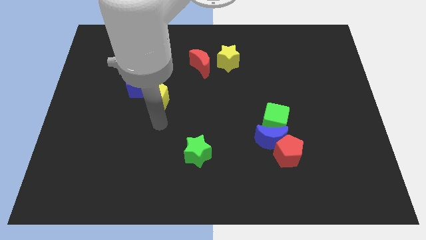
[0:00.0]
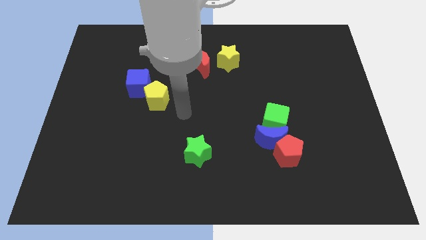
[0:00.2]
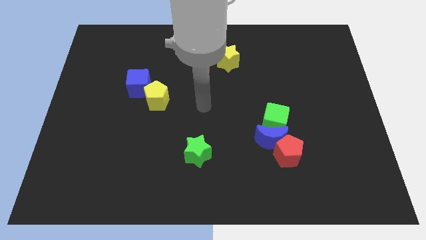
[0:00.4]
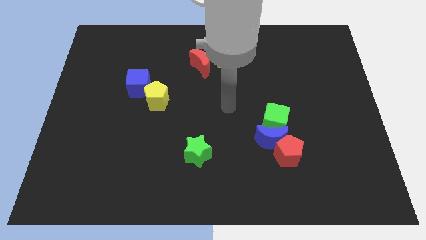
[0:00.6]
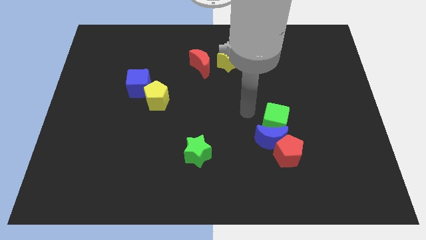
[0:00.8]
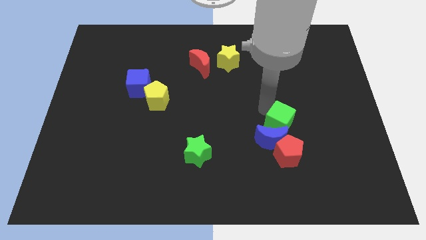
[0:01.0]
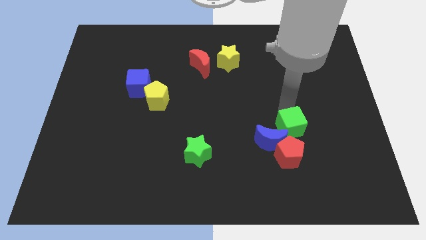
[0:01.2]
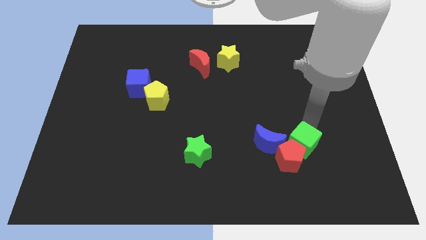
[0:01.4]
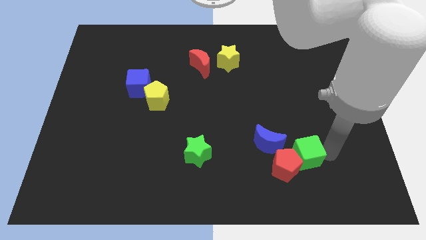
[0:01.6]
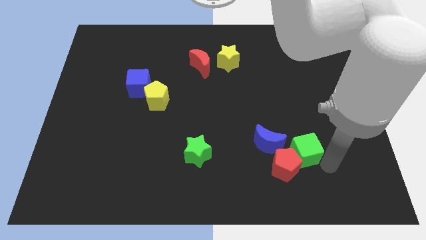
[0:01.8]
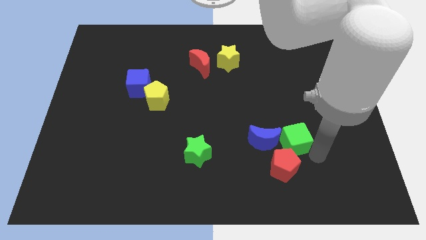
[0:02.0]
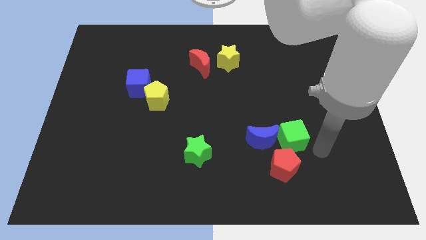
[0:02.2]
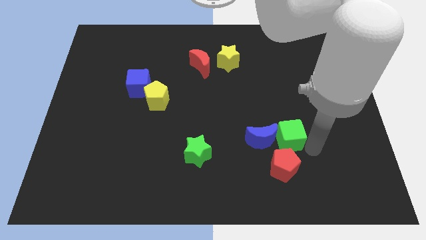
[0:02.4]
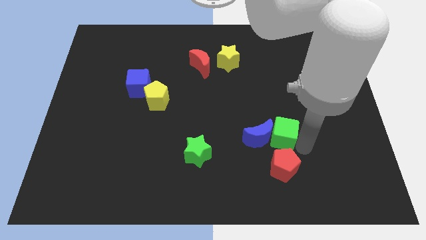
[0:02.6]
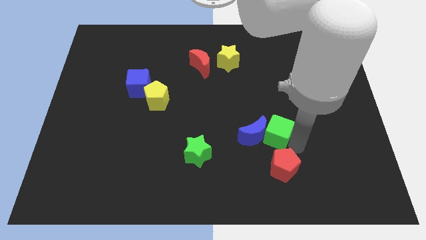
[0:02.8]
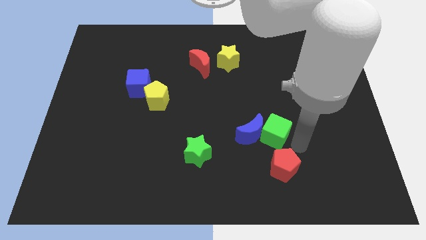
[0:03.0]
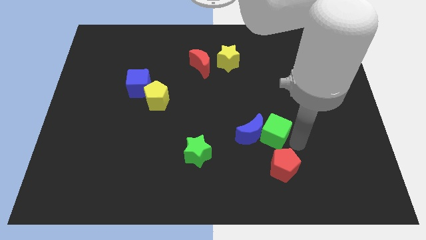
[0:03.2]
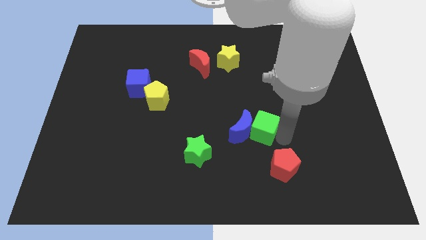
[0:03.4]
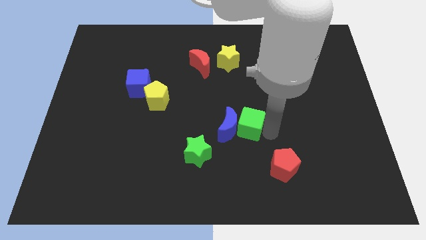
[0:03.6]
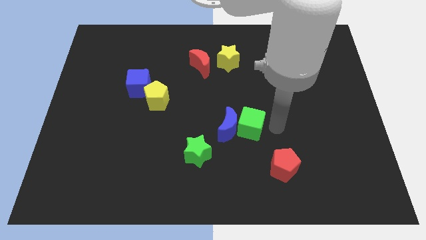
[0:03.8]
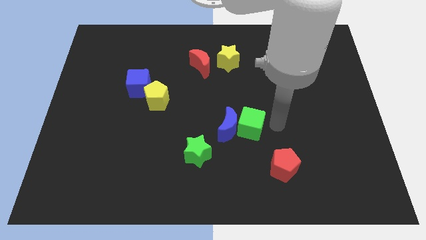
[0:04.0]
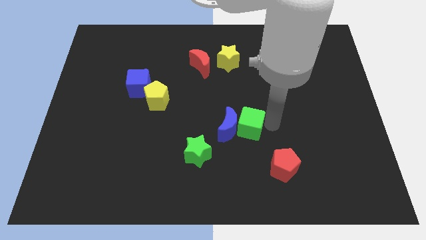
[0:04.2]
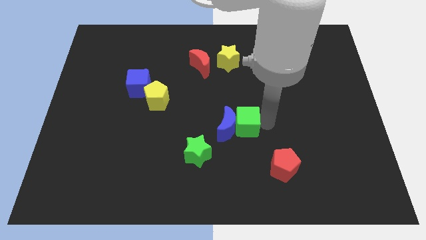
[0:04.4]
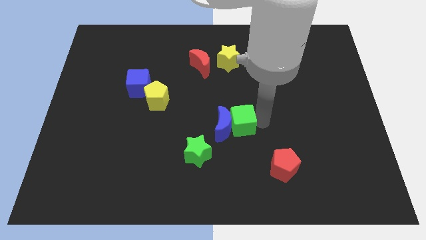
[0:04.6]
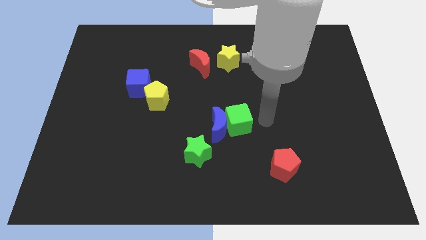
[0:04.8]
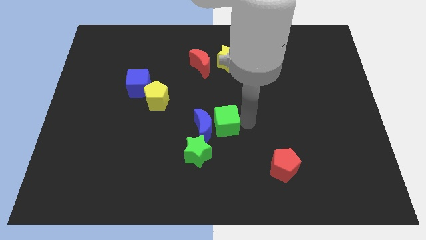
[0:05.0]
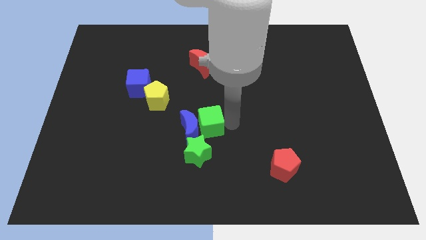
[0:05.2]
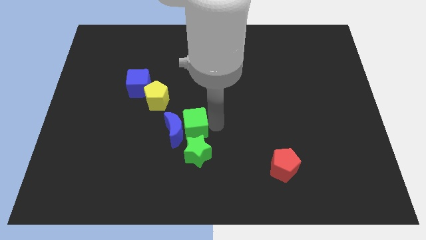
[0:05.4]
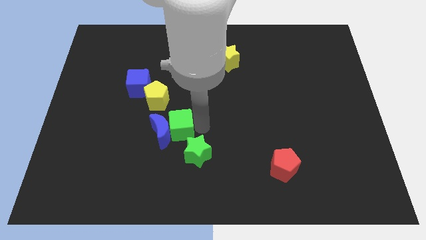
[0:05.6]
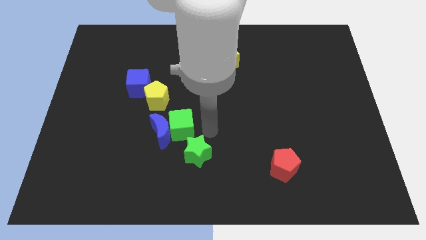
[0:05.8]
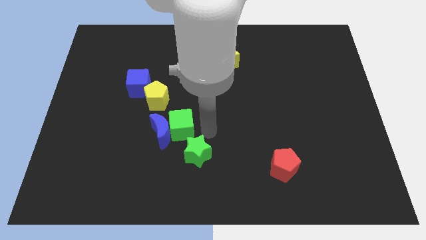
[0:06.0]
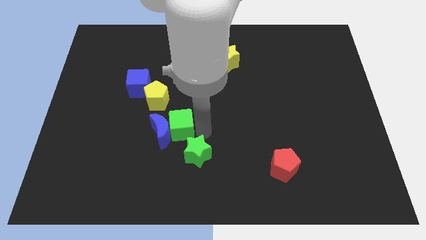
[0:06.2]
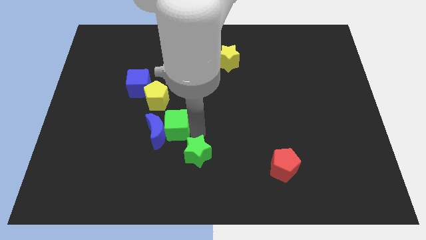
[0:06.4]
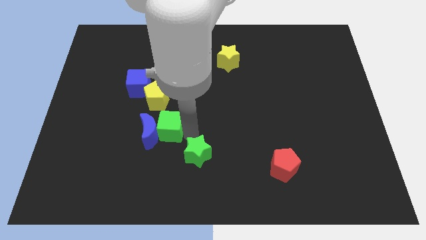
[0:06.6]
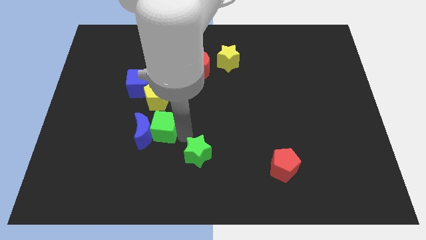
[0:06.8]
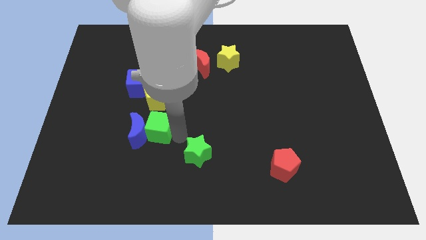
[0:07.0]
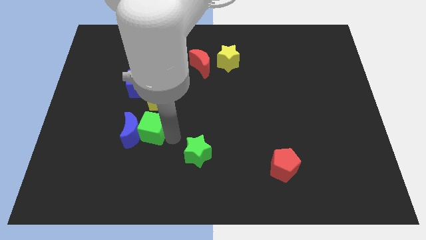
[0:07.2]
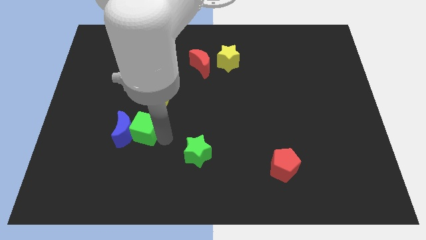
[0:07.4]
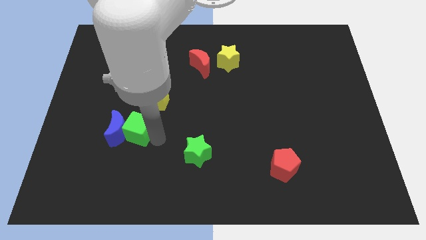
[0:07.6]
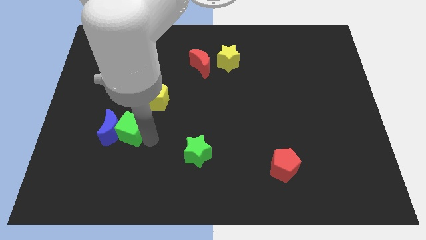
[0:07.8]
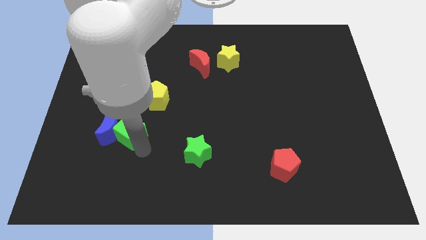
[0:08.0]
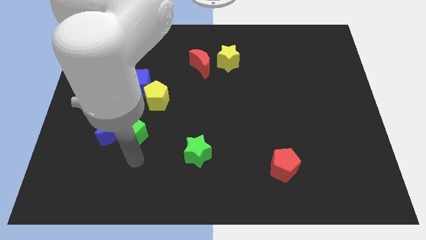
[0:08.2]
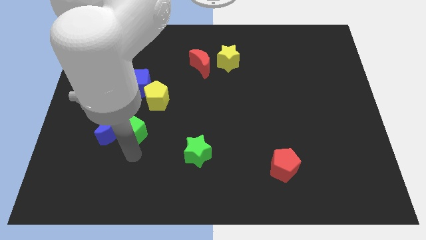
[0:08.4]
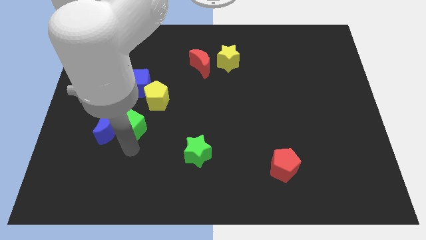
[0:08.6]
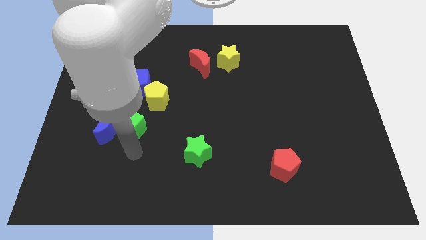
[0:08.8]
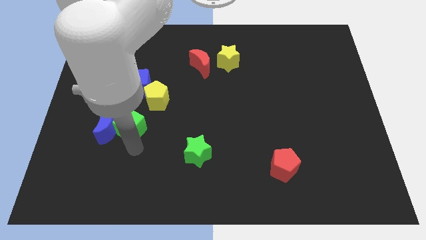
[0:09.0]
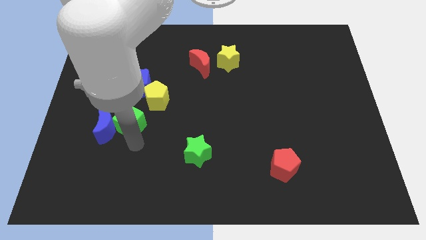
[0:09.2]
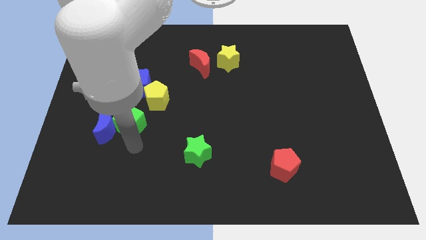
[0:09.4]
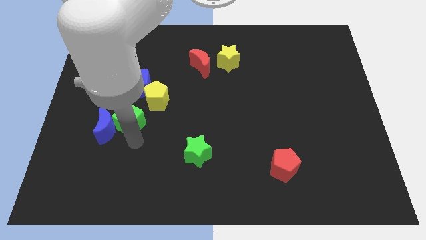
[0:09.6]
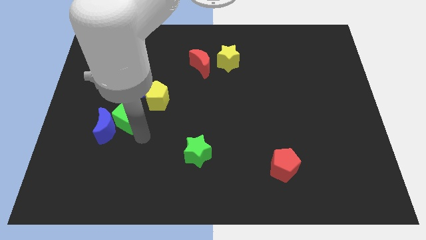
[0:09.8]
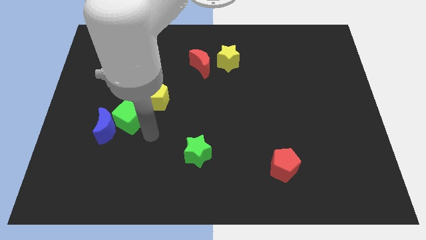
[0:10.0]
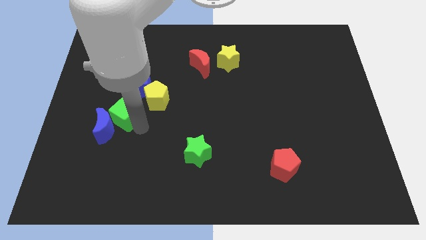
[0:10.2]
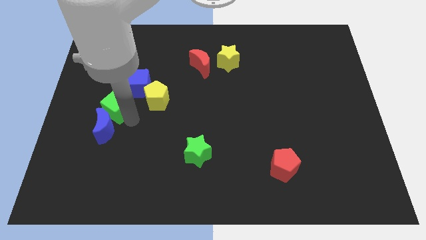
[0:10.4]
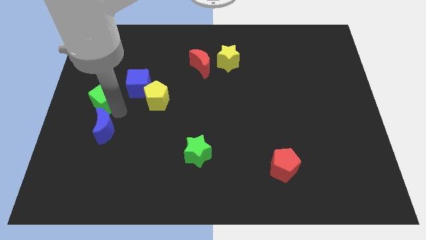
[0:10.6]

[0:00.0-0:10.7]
slide the green cube to the left of the blue cube

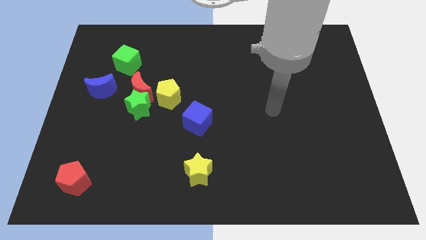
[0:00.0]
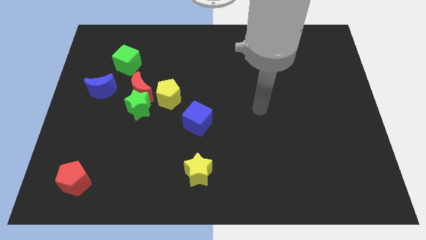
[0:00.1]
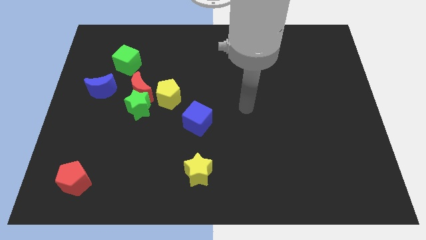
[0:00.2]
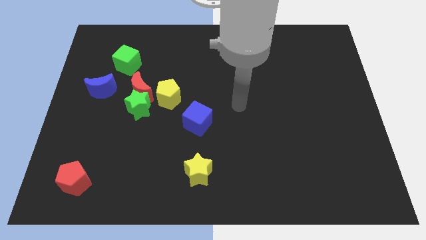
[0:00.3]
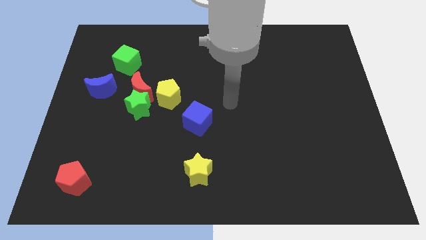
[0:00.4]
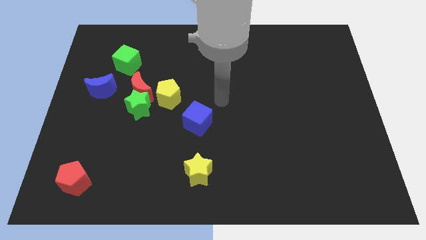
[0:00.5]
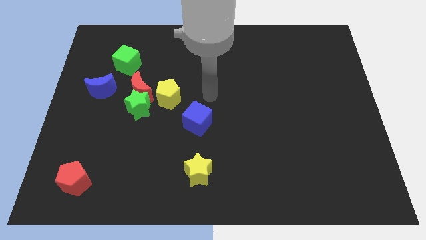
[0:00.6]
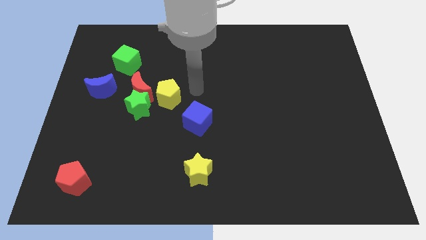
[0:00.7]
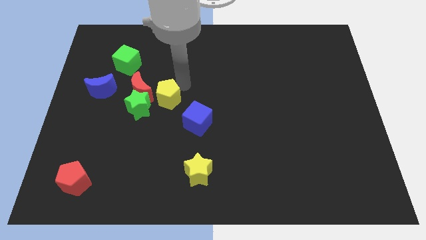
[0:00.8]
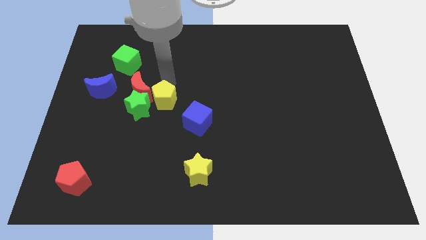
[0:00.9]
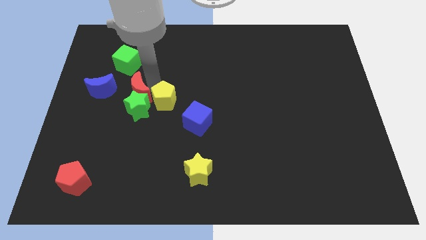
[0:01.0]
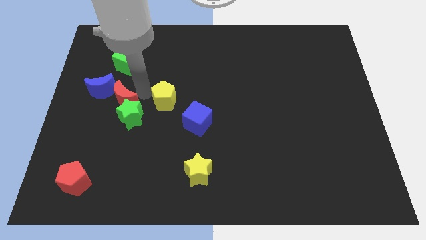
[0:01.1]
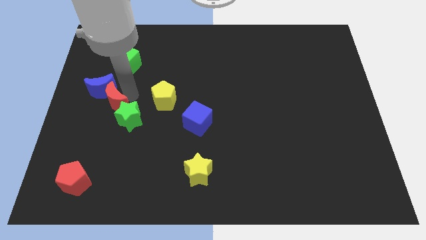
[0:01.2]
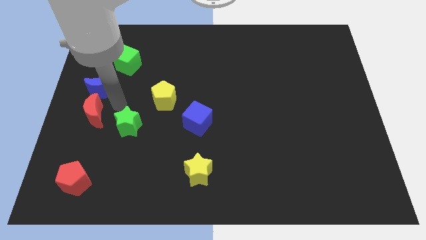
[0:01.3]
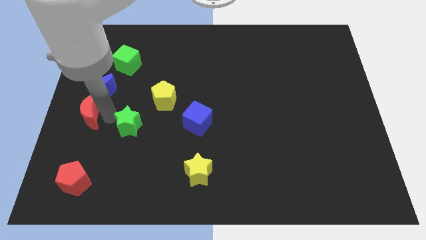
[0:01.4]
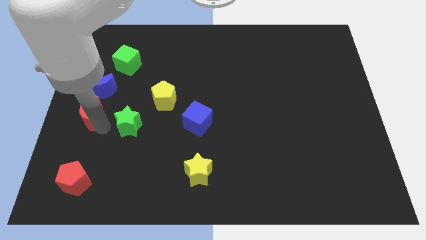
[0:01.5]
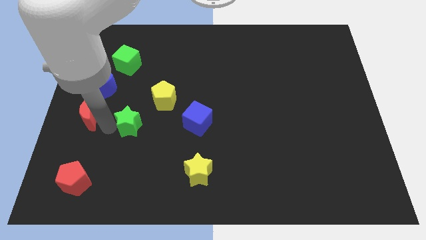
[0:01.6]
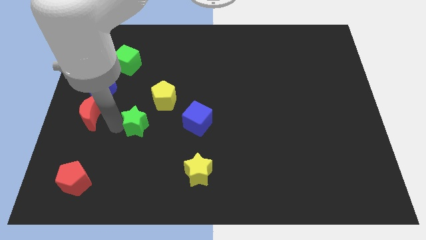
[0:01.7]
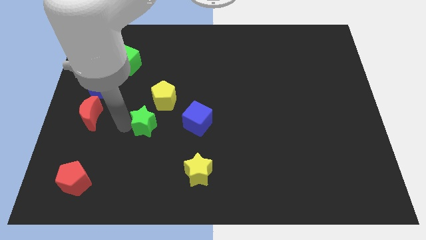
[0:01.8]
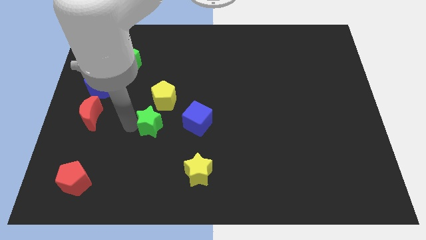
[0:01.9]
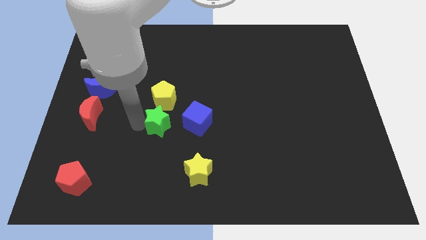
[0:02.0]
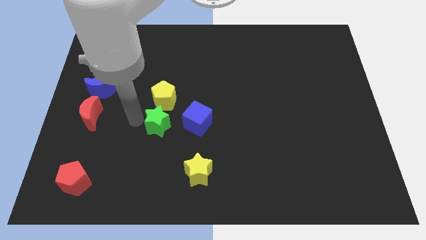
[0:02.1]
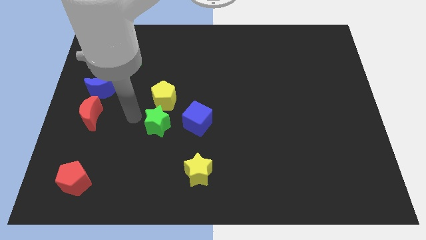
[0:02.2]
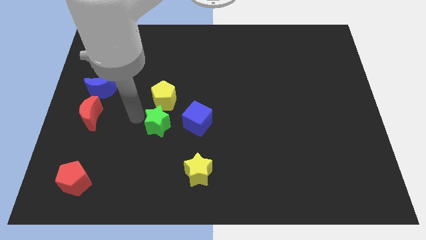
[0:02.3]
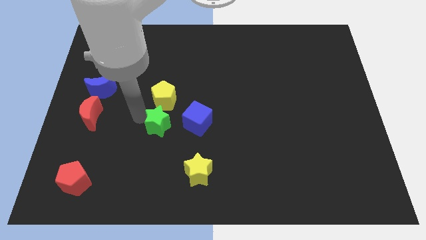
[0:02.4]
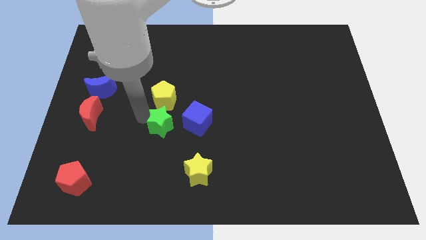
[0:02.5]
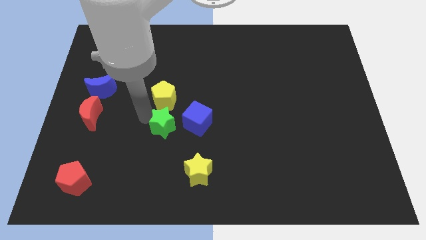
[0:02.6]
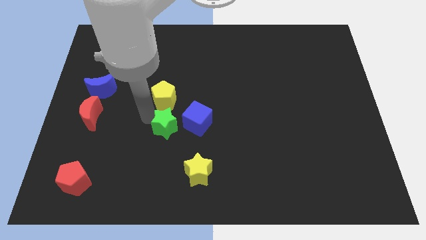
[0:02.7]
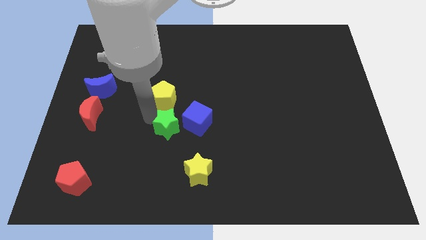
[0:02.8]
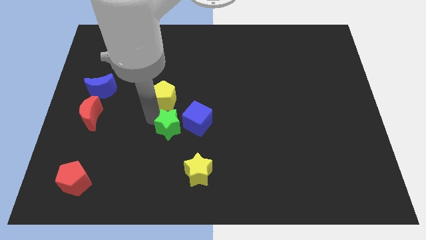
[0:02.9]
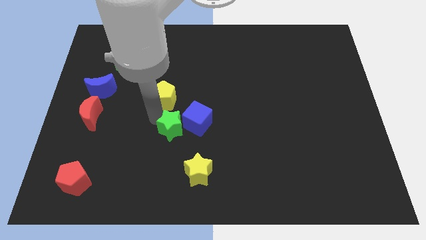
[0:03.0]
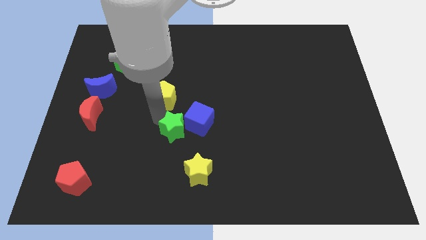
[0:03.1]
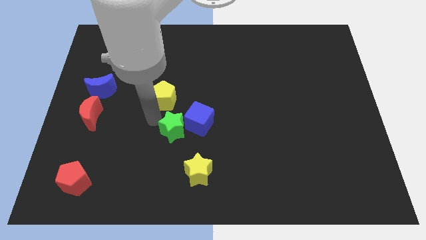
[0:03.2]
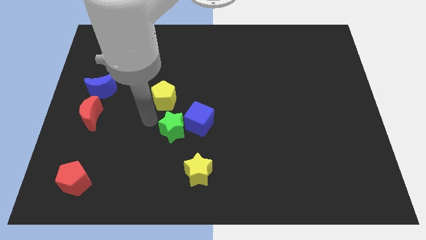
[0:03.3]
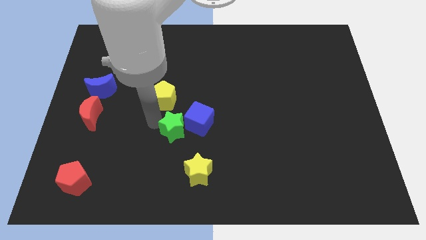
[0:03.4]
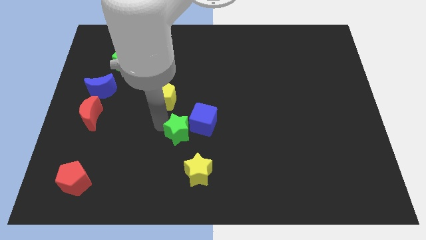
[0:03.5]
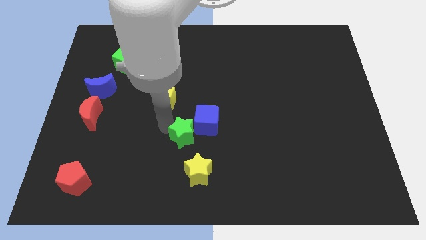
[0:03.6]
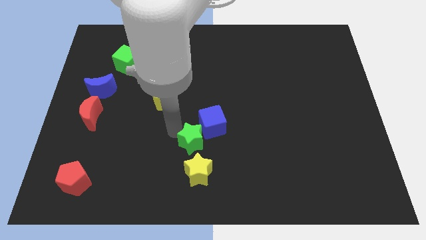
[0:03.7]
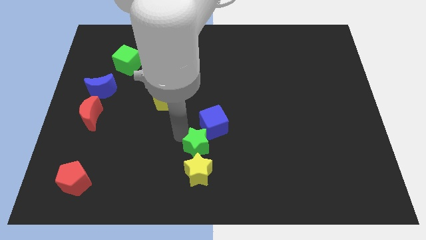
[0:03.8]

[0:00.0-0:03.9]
move the green star to the top right side of the yellow star
